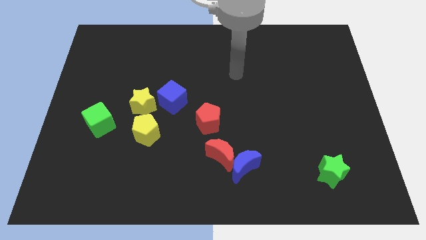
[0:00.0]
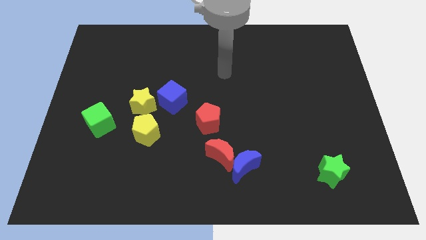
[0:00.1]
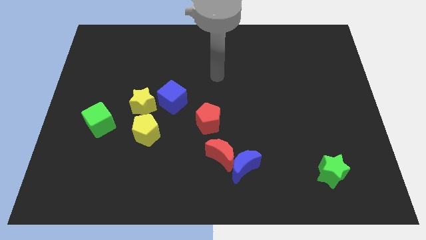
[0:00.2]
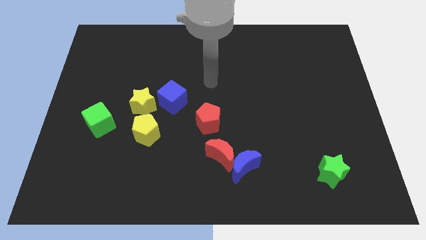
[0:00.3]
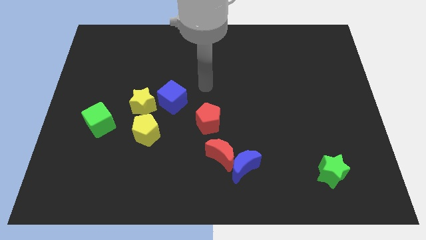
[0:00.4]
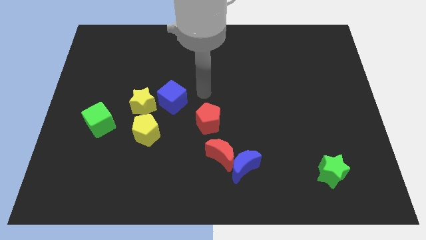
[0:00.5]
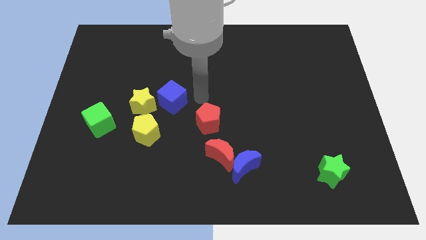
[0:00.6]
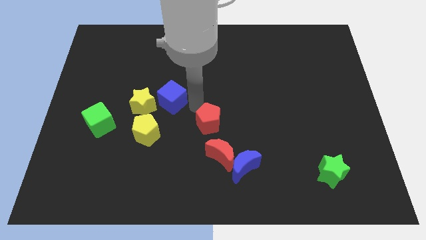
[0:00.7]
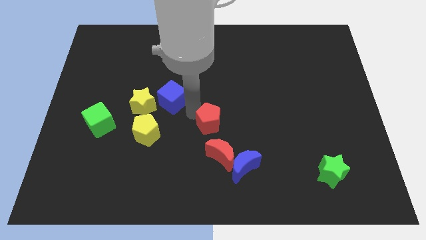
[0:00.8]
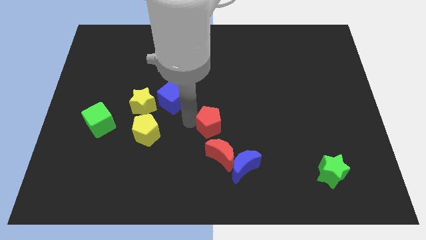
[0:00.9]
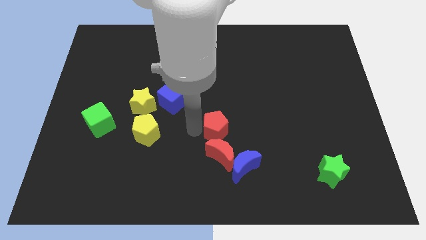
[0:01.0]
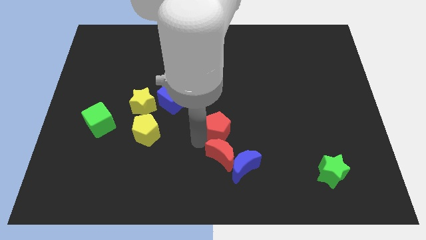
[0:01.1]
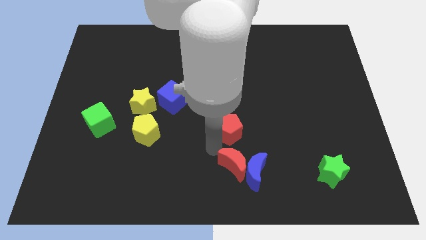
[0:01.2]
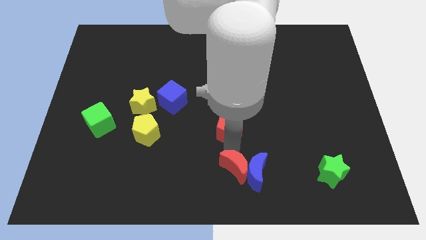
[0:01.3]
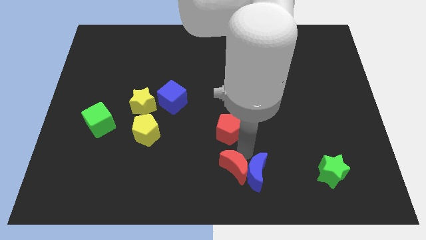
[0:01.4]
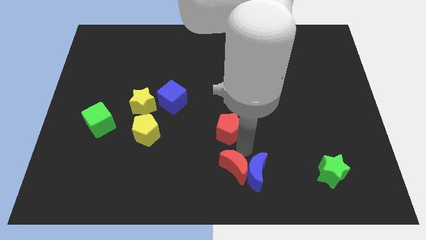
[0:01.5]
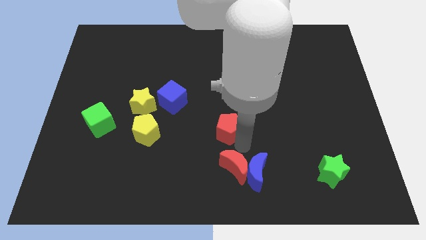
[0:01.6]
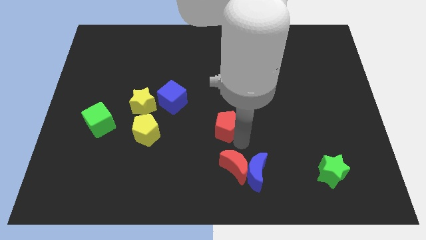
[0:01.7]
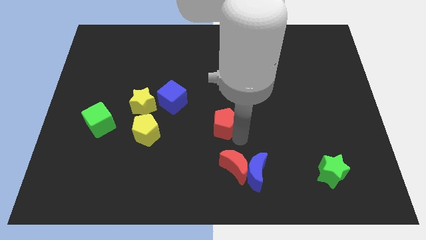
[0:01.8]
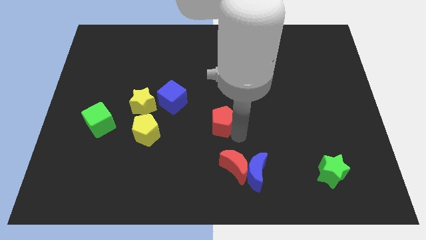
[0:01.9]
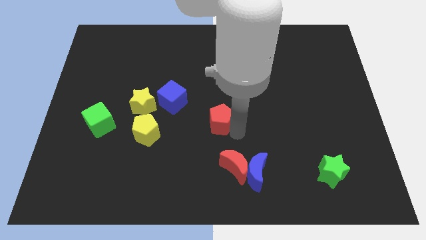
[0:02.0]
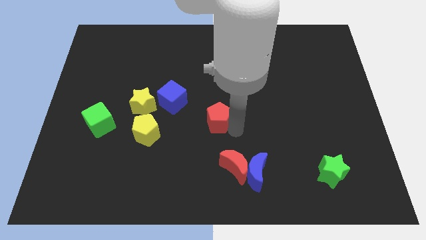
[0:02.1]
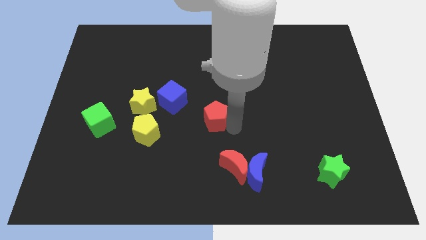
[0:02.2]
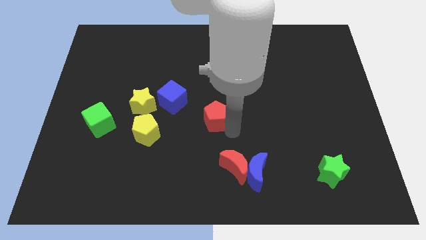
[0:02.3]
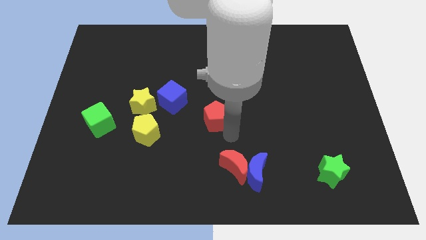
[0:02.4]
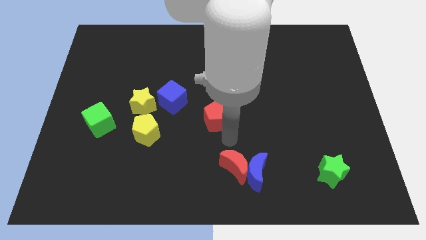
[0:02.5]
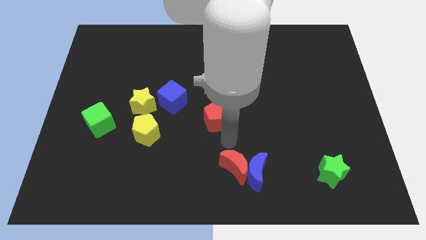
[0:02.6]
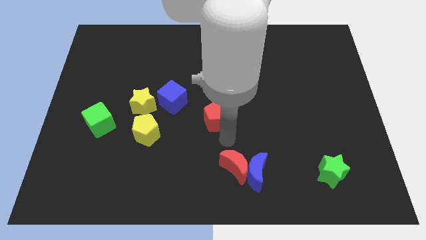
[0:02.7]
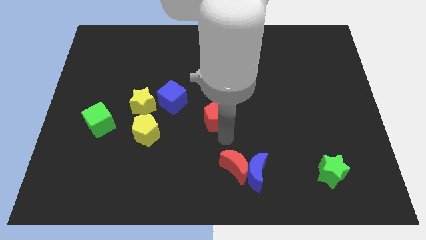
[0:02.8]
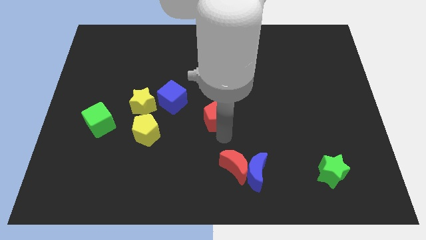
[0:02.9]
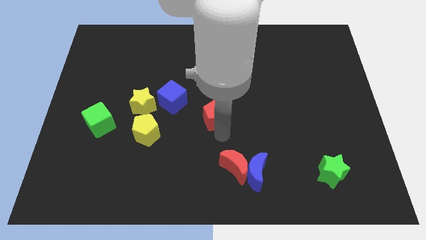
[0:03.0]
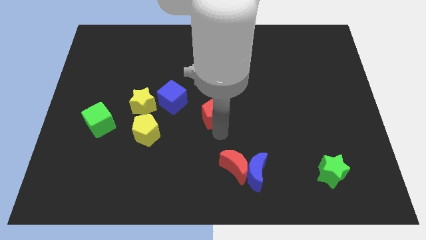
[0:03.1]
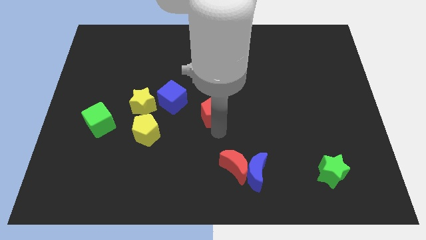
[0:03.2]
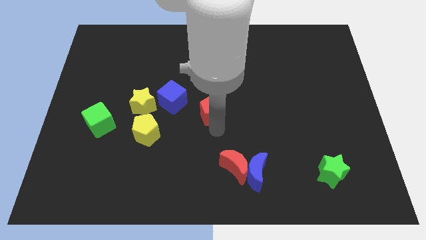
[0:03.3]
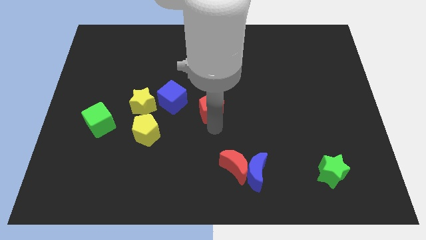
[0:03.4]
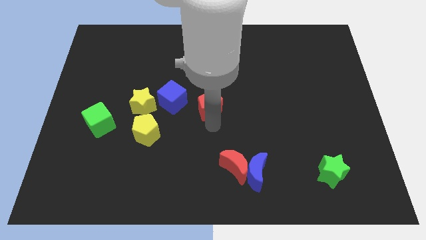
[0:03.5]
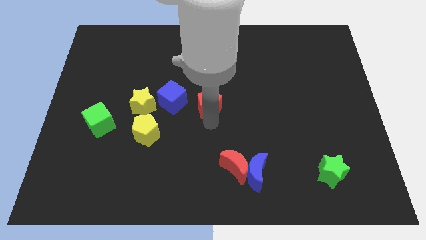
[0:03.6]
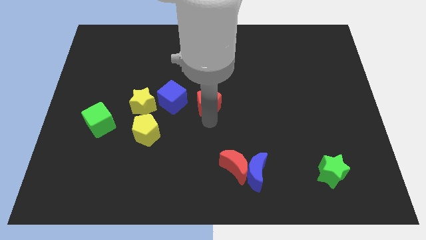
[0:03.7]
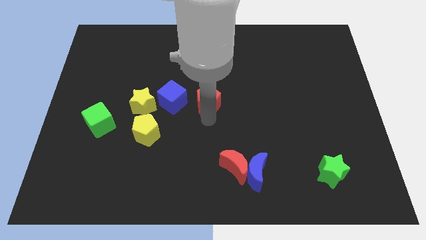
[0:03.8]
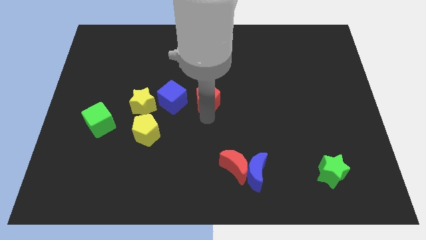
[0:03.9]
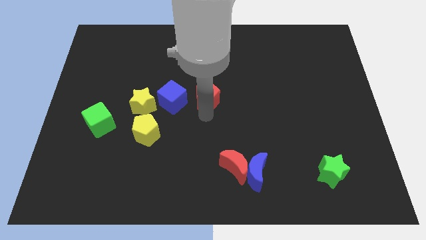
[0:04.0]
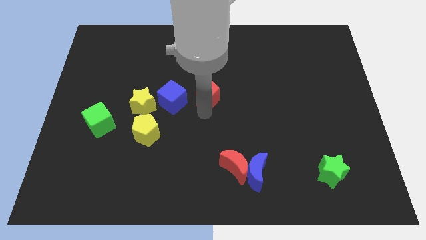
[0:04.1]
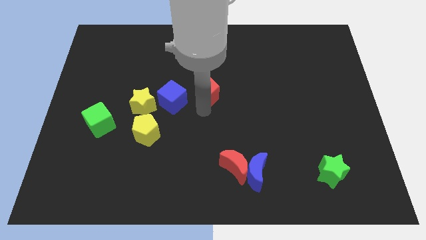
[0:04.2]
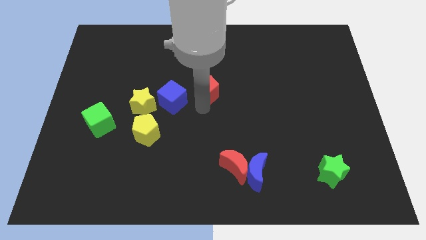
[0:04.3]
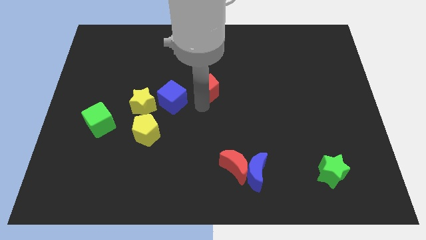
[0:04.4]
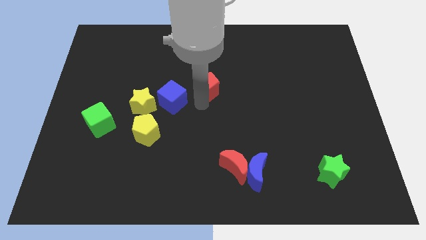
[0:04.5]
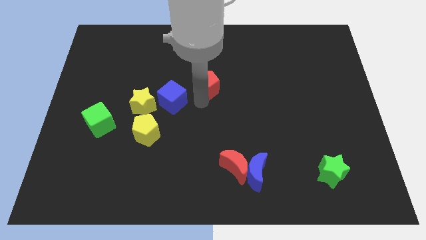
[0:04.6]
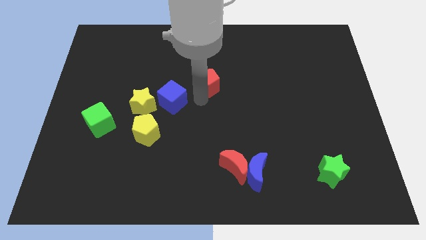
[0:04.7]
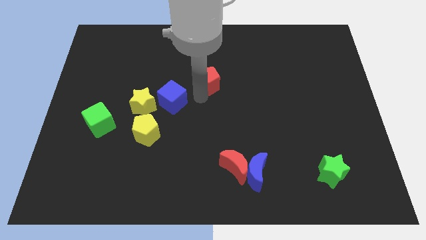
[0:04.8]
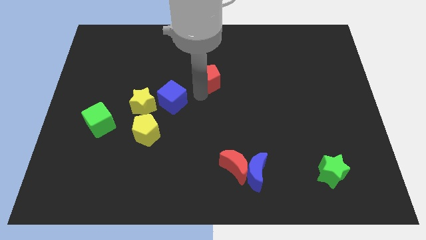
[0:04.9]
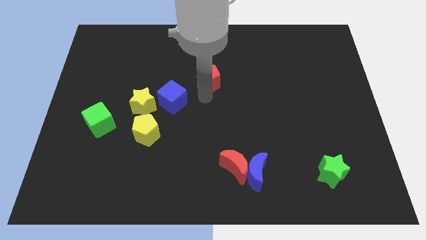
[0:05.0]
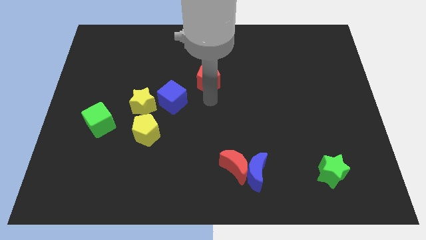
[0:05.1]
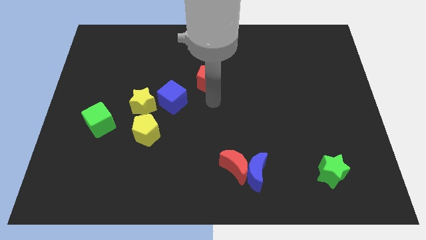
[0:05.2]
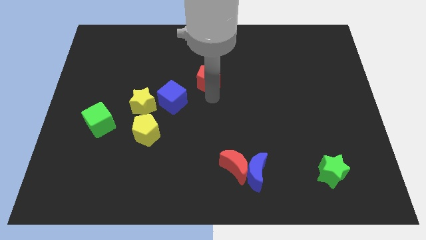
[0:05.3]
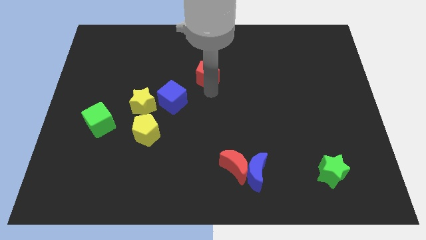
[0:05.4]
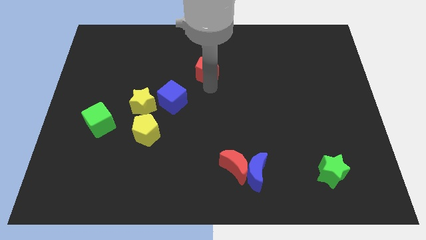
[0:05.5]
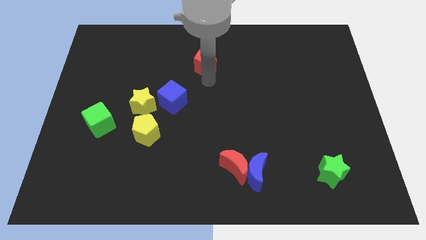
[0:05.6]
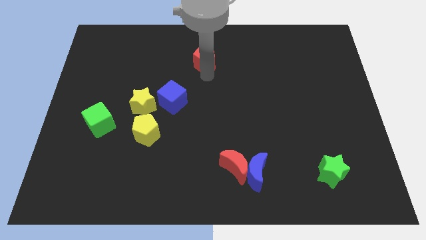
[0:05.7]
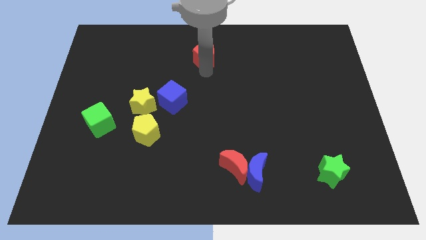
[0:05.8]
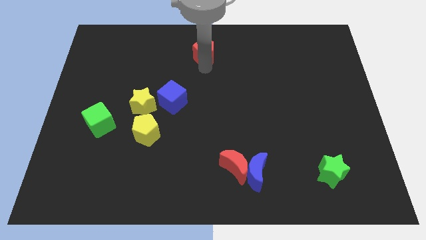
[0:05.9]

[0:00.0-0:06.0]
slide the red pentagon to the top
